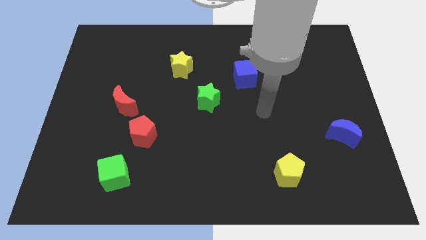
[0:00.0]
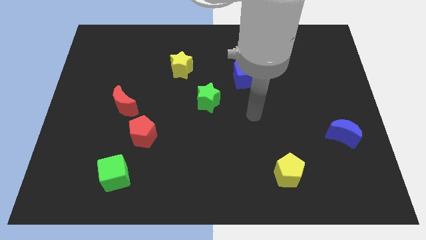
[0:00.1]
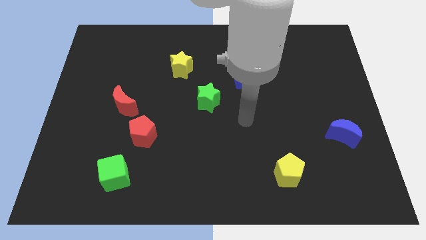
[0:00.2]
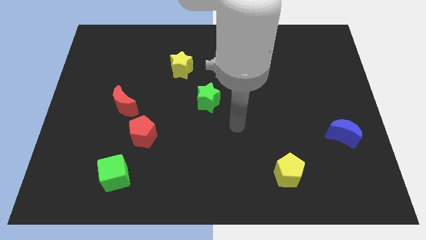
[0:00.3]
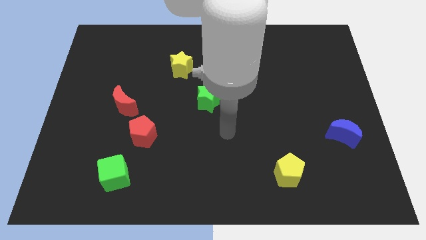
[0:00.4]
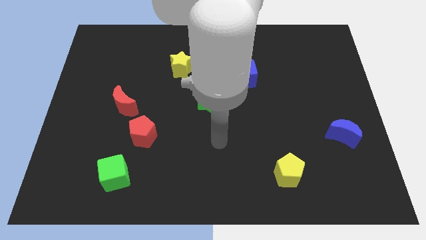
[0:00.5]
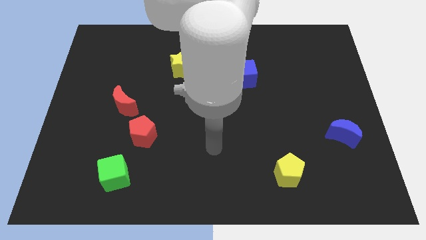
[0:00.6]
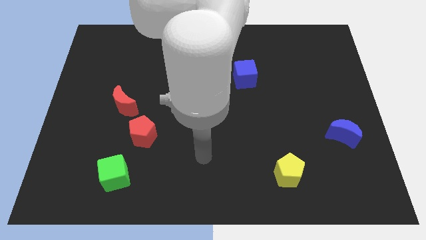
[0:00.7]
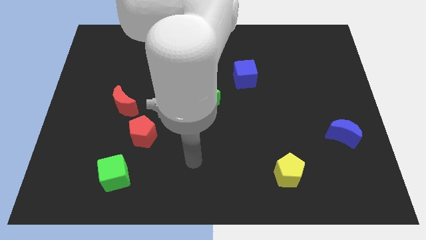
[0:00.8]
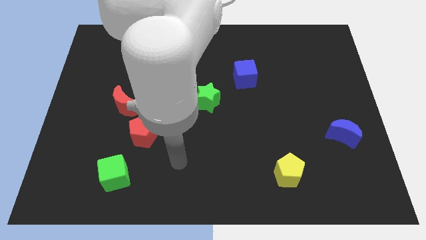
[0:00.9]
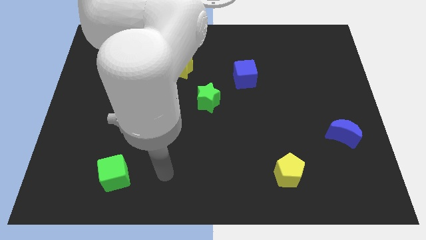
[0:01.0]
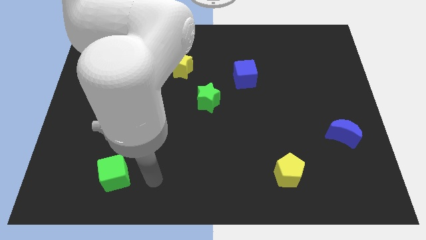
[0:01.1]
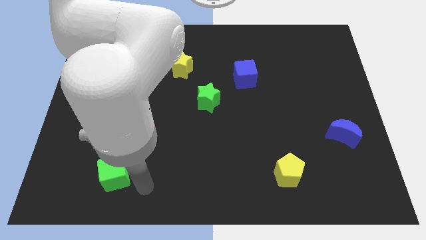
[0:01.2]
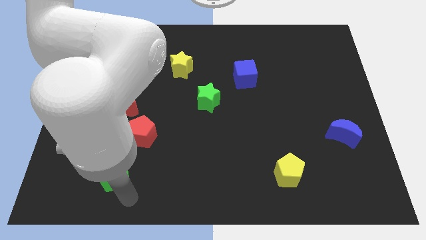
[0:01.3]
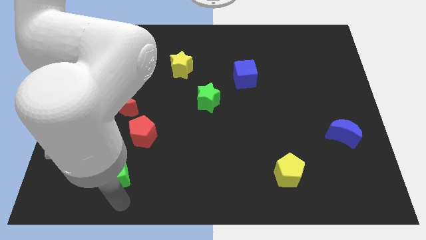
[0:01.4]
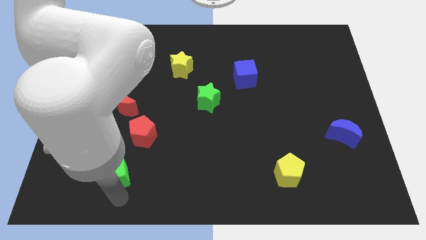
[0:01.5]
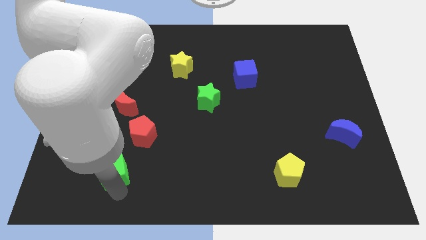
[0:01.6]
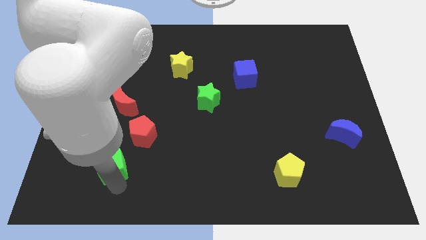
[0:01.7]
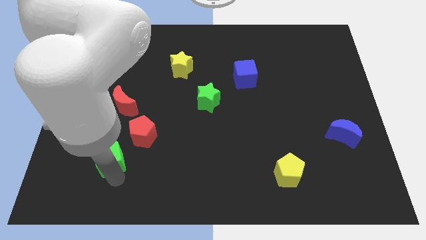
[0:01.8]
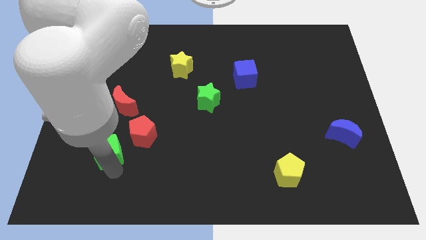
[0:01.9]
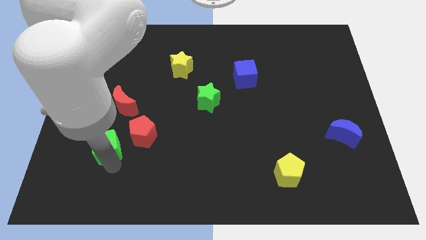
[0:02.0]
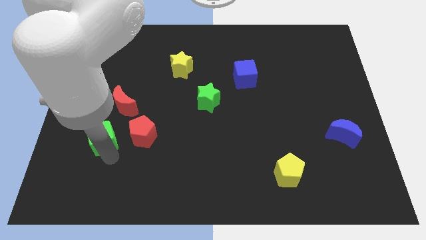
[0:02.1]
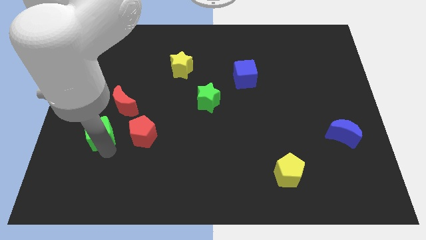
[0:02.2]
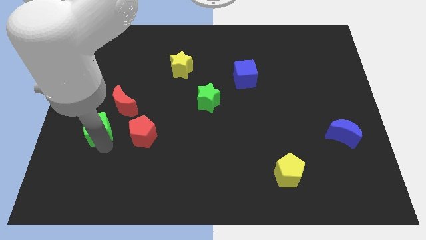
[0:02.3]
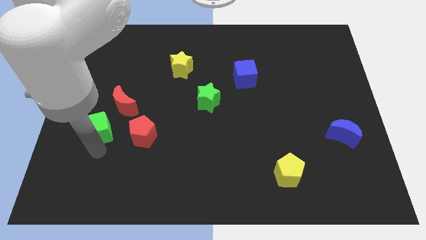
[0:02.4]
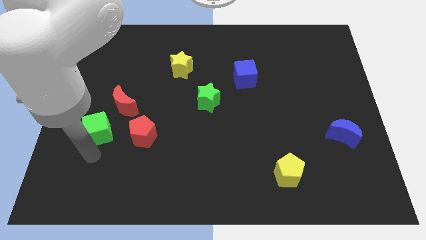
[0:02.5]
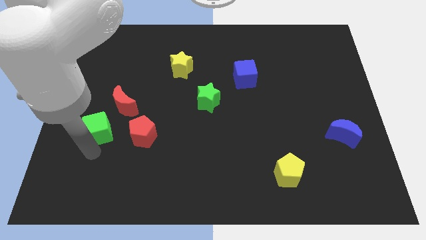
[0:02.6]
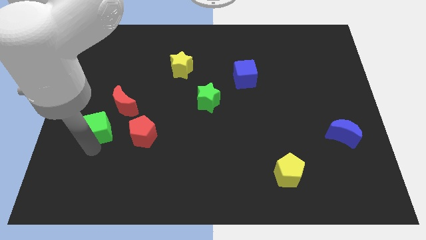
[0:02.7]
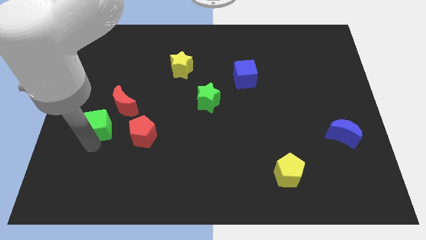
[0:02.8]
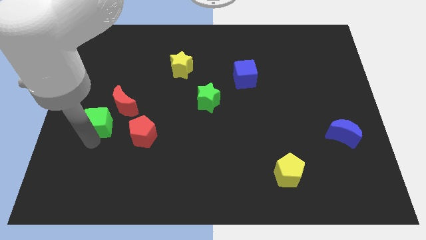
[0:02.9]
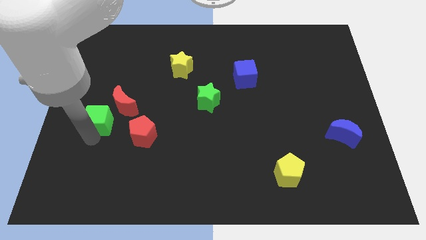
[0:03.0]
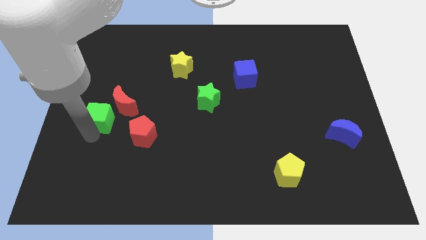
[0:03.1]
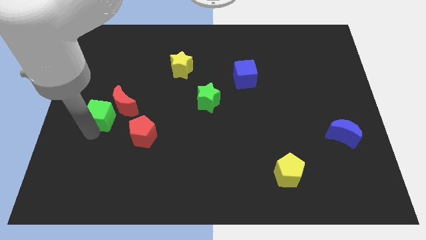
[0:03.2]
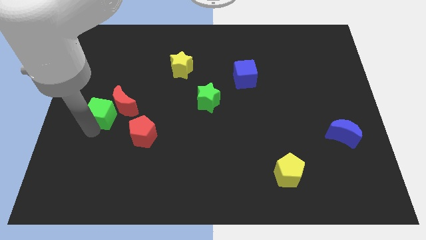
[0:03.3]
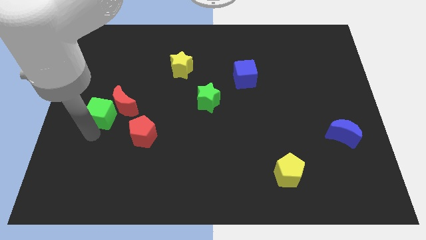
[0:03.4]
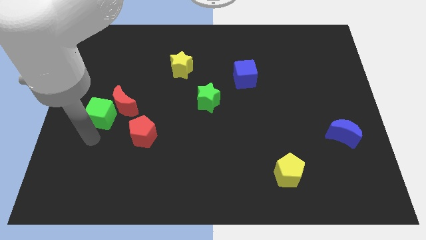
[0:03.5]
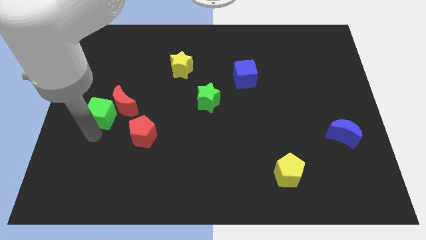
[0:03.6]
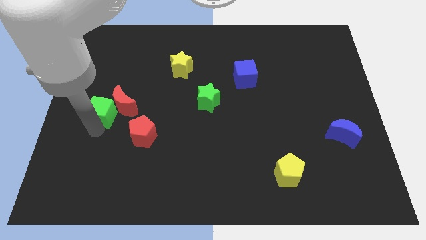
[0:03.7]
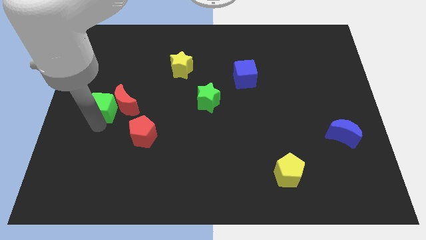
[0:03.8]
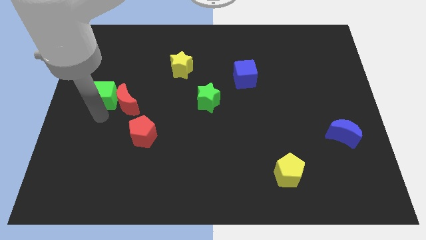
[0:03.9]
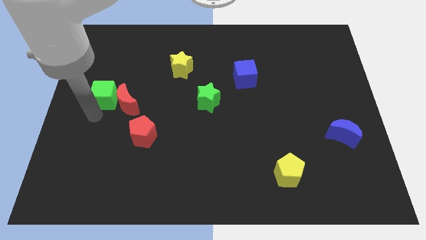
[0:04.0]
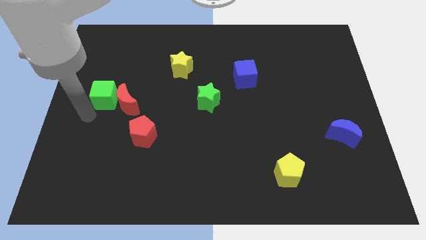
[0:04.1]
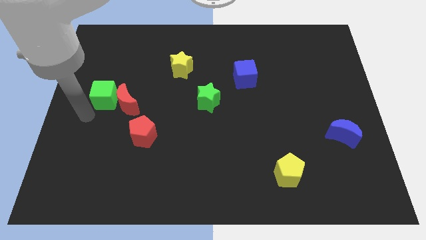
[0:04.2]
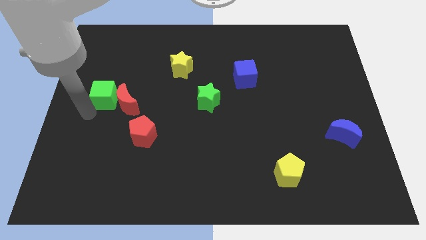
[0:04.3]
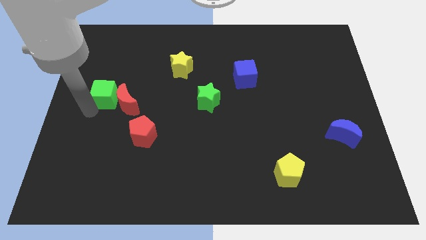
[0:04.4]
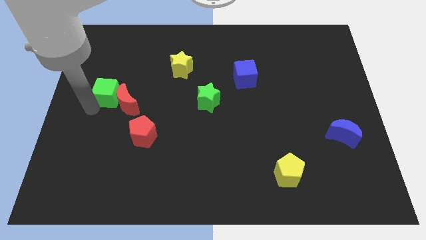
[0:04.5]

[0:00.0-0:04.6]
slide the green cube up

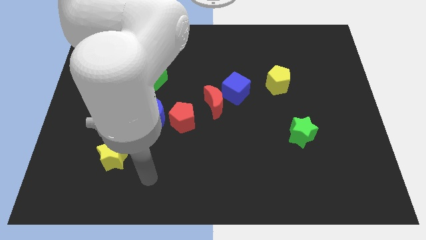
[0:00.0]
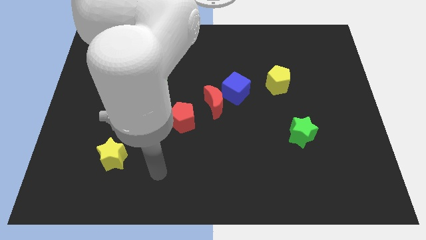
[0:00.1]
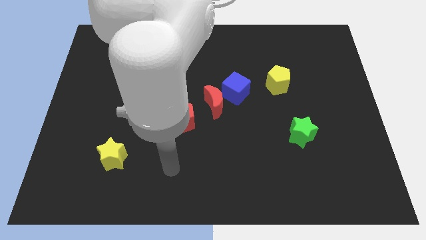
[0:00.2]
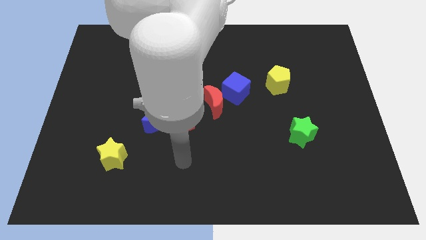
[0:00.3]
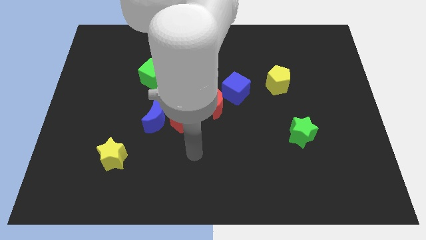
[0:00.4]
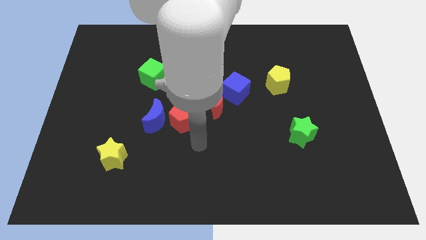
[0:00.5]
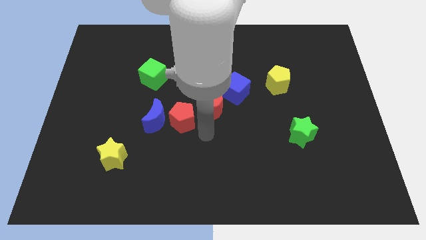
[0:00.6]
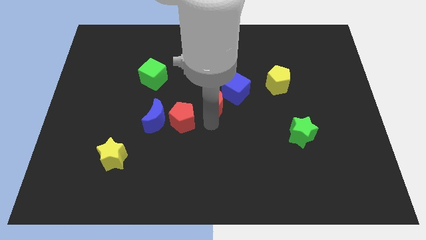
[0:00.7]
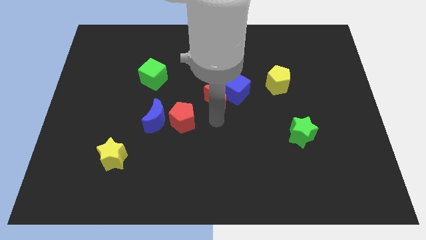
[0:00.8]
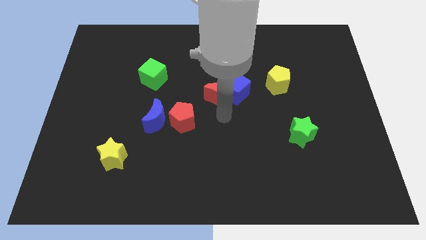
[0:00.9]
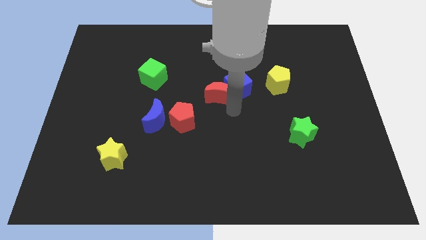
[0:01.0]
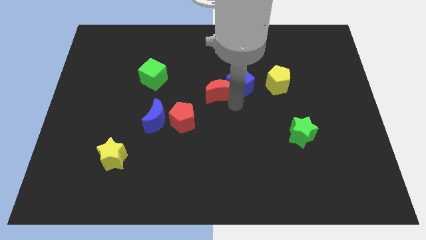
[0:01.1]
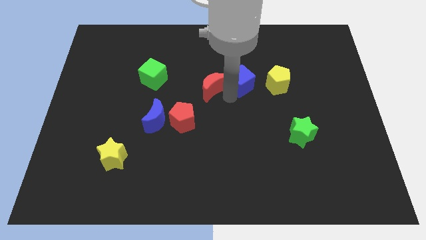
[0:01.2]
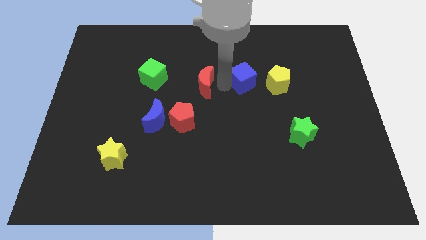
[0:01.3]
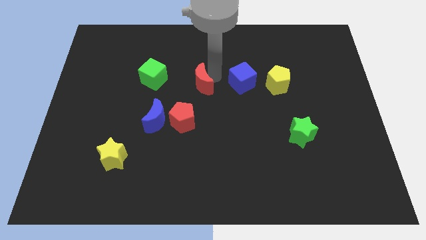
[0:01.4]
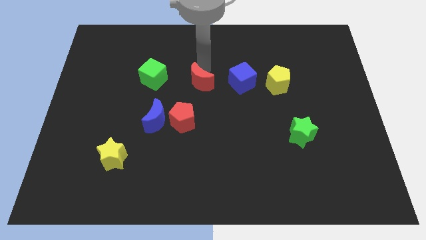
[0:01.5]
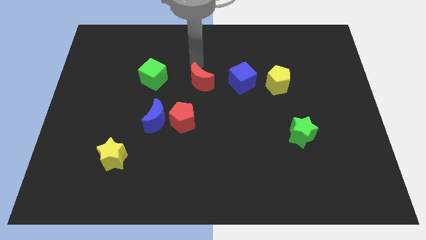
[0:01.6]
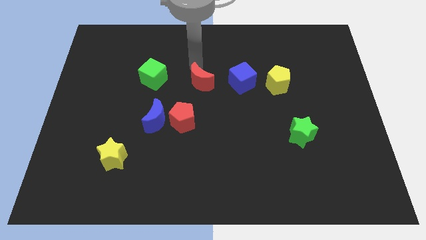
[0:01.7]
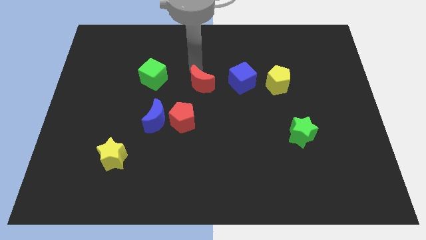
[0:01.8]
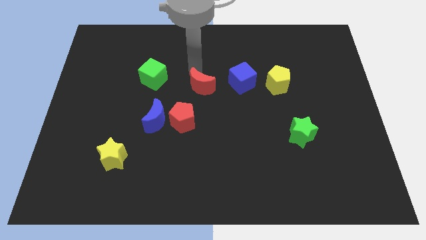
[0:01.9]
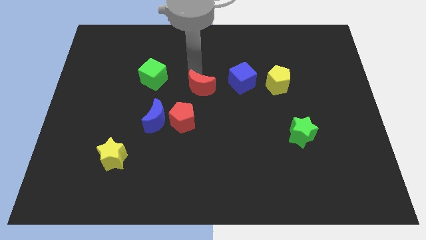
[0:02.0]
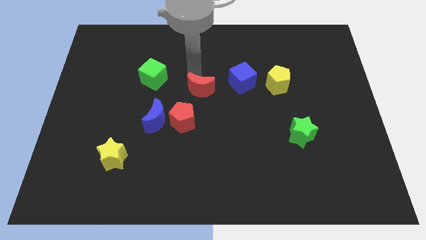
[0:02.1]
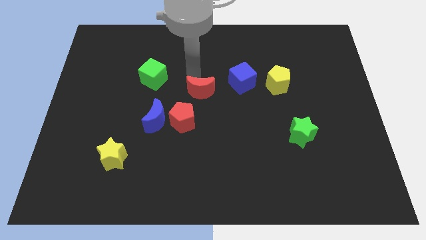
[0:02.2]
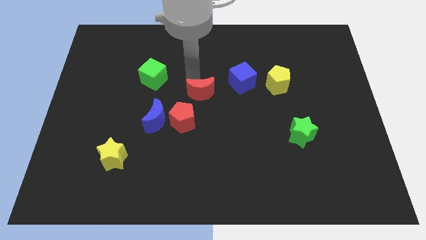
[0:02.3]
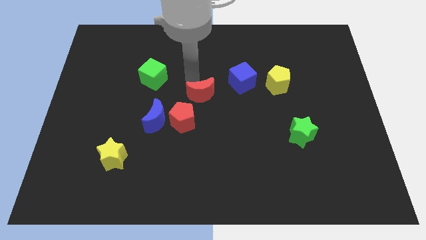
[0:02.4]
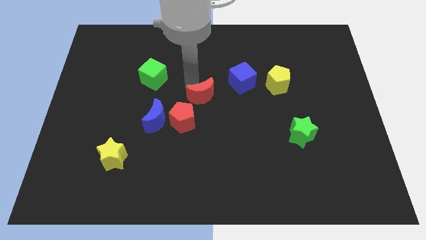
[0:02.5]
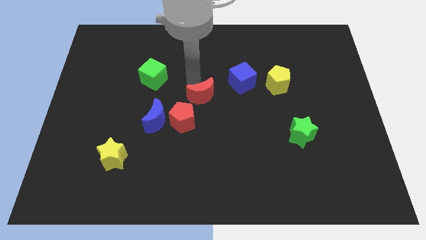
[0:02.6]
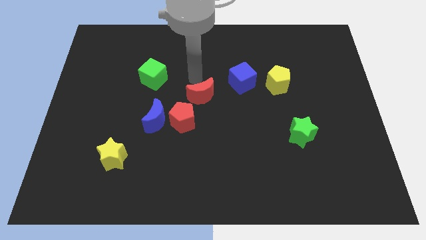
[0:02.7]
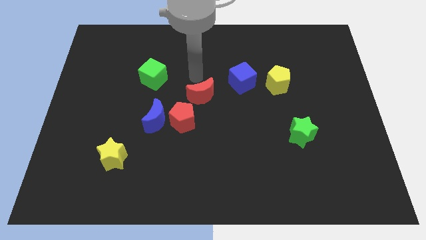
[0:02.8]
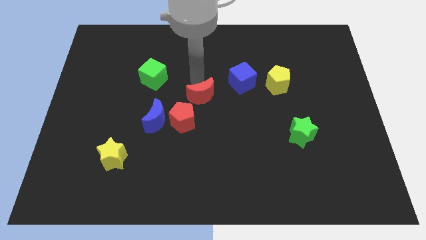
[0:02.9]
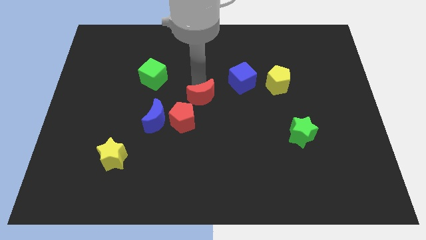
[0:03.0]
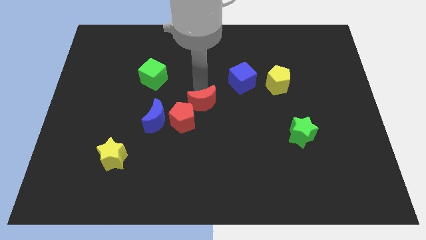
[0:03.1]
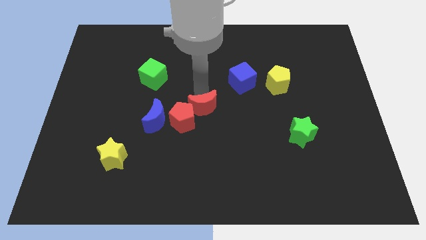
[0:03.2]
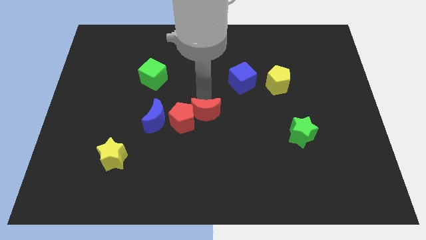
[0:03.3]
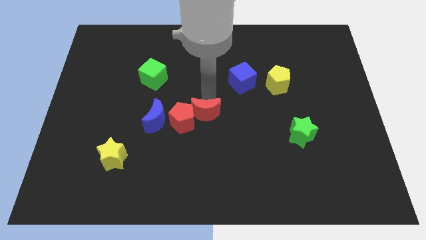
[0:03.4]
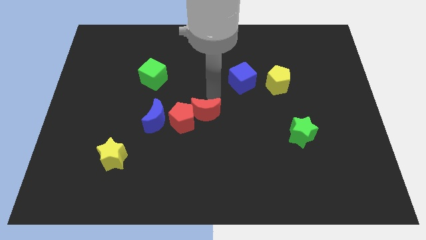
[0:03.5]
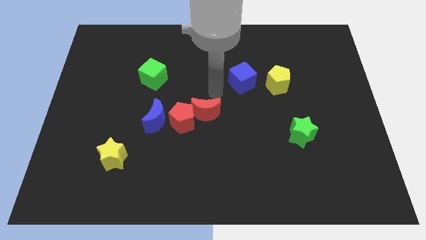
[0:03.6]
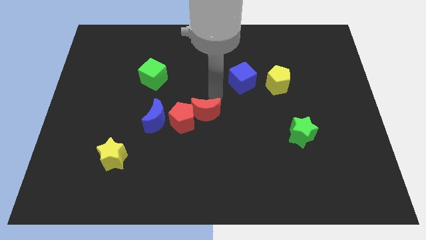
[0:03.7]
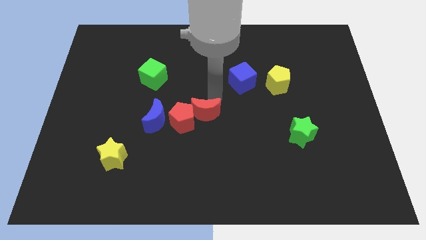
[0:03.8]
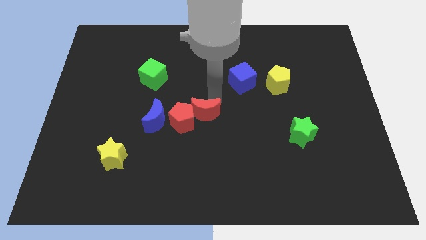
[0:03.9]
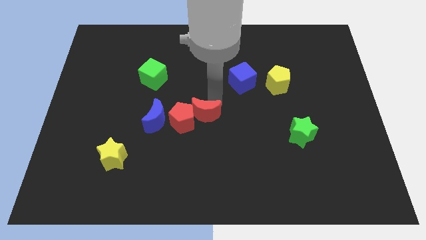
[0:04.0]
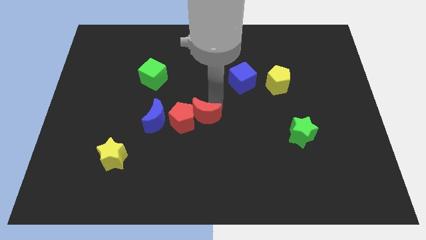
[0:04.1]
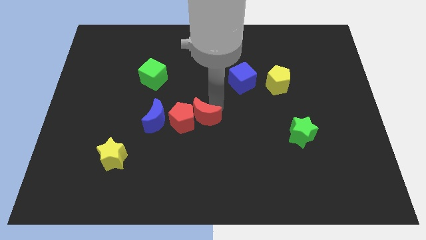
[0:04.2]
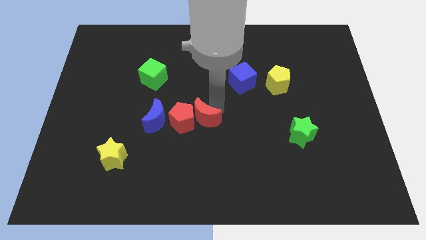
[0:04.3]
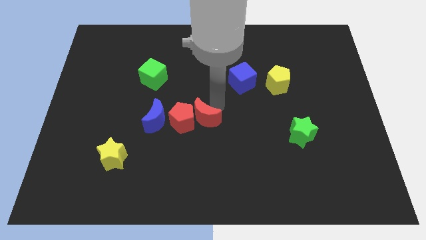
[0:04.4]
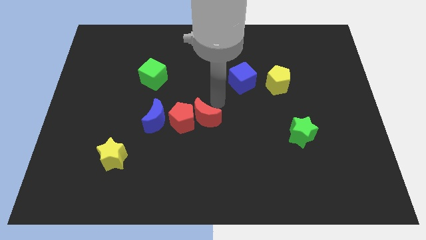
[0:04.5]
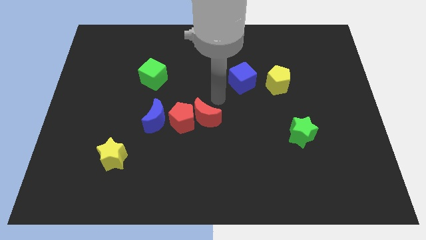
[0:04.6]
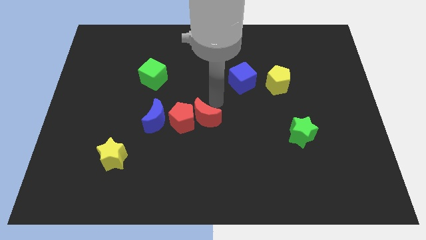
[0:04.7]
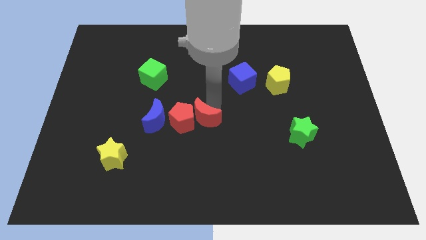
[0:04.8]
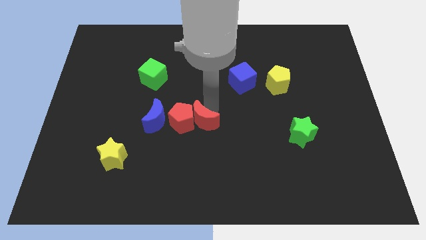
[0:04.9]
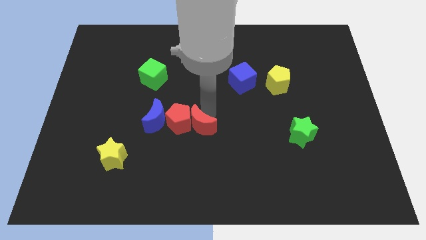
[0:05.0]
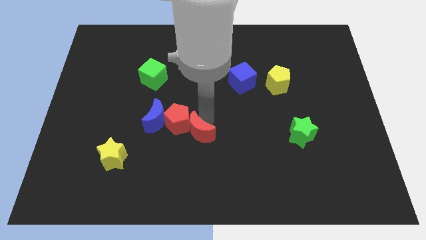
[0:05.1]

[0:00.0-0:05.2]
move the red moon a little bit downwards and left
